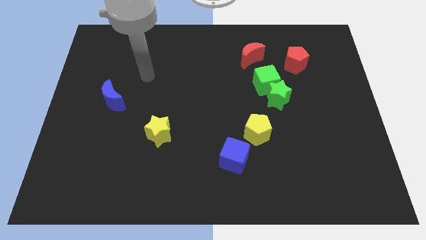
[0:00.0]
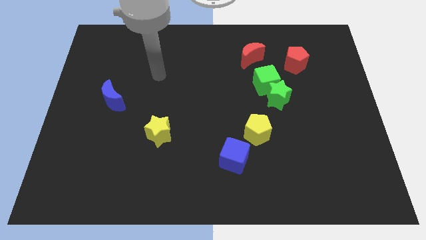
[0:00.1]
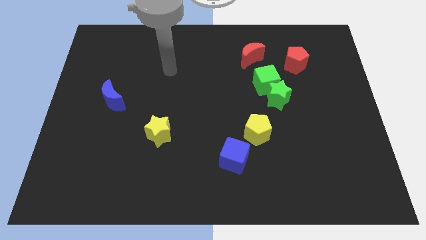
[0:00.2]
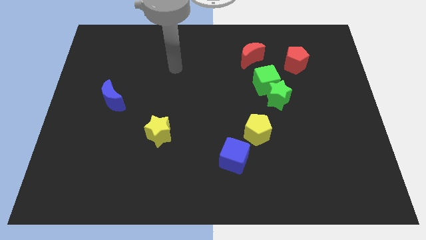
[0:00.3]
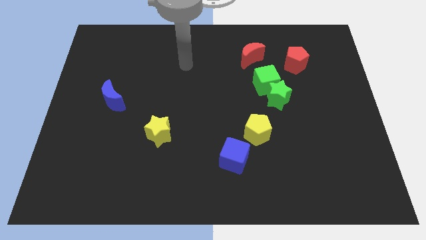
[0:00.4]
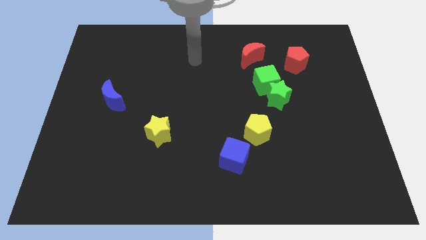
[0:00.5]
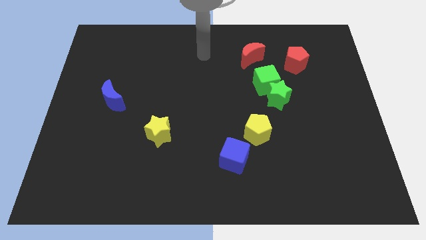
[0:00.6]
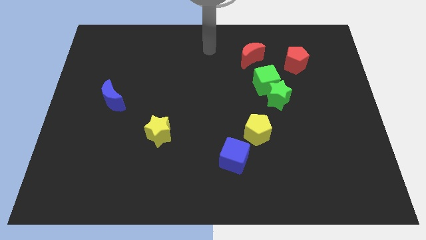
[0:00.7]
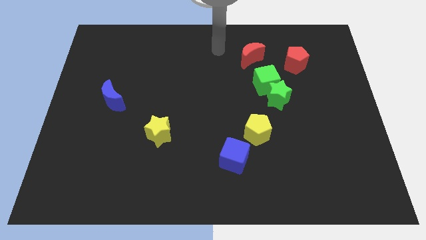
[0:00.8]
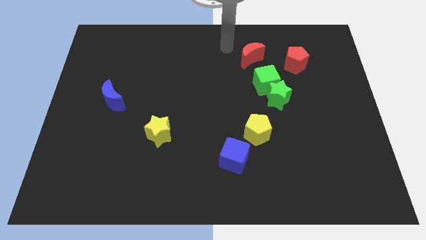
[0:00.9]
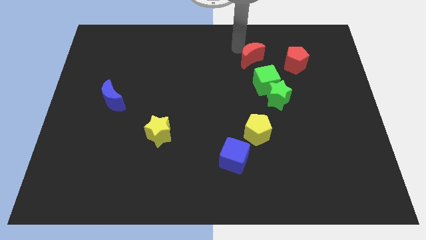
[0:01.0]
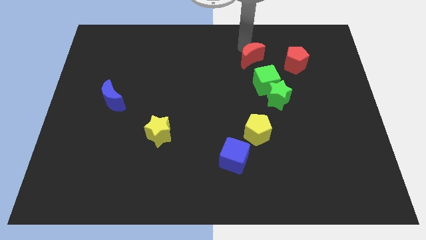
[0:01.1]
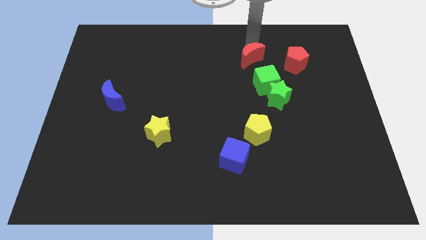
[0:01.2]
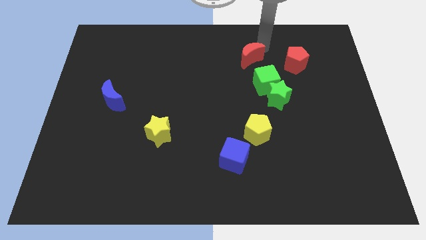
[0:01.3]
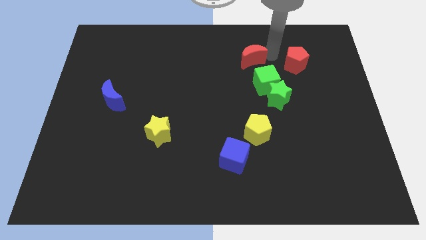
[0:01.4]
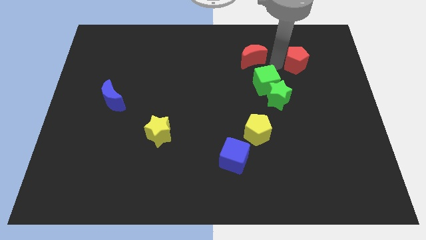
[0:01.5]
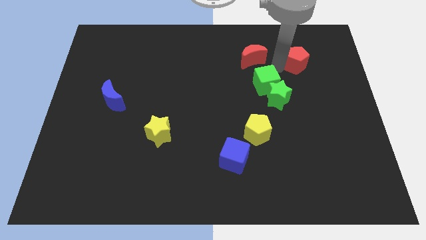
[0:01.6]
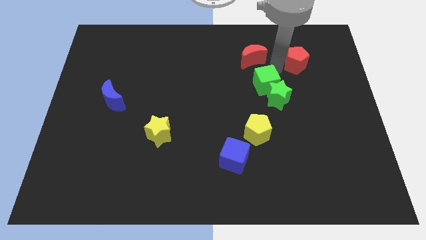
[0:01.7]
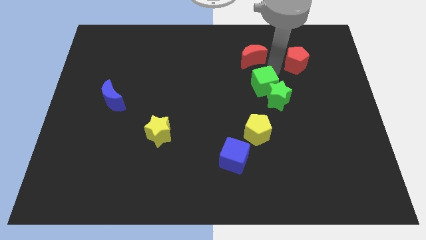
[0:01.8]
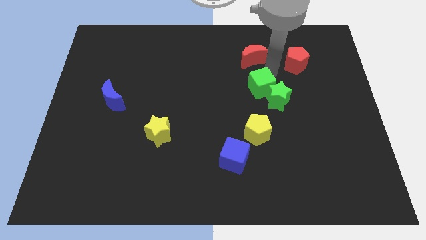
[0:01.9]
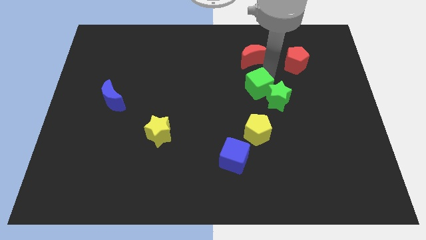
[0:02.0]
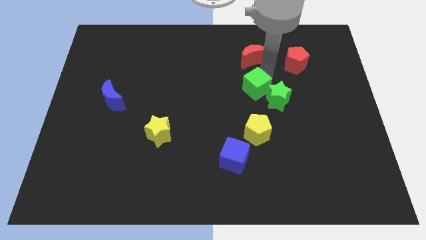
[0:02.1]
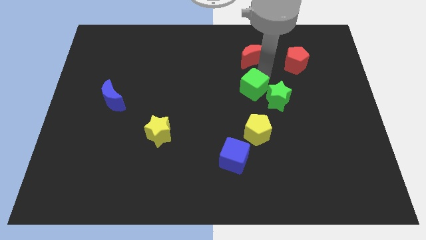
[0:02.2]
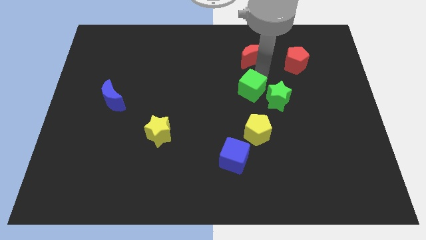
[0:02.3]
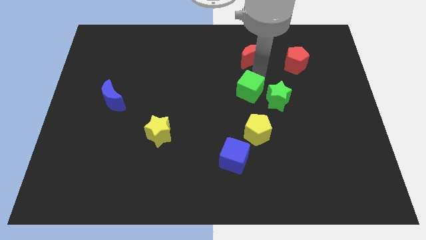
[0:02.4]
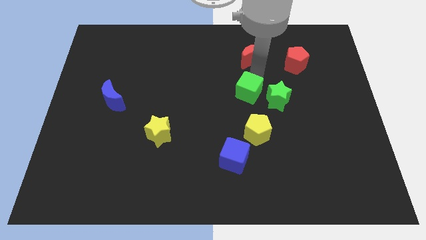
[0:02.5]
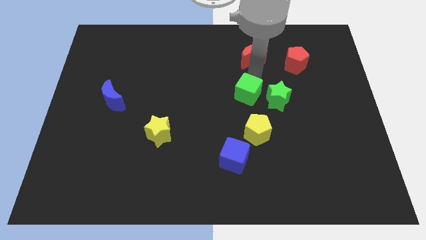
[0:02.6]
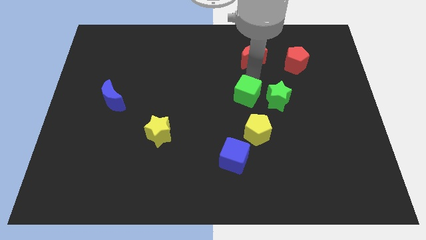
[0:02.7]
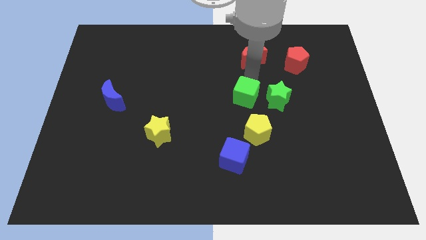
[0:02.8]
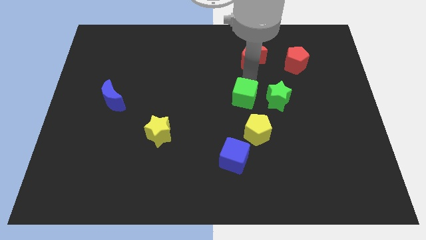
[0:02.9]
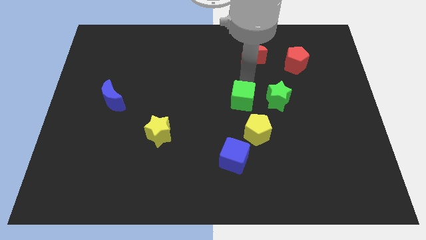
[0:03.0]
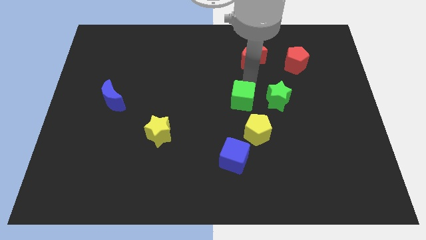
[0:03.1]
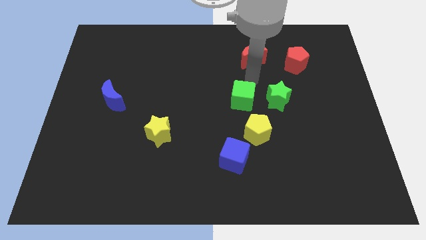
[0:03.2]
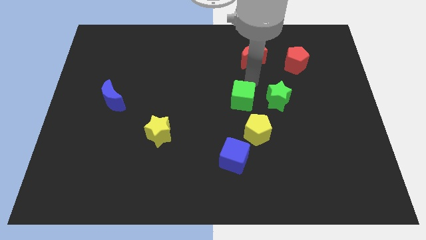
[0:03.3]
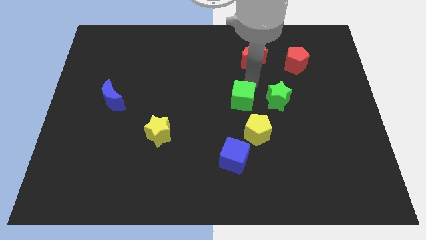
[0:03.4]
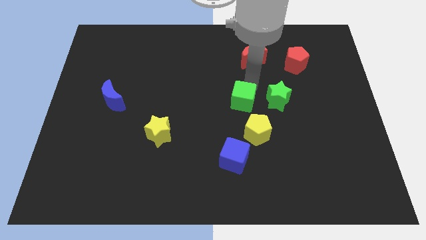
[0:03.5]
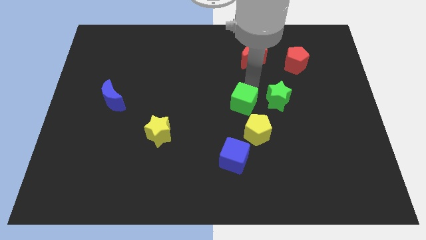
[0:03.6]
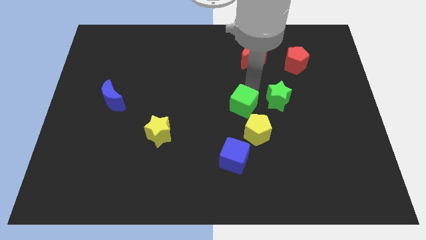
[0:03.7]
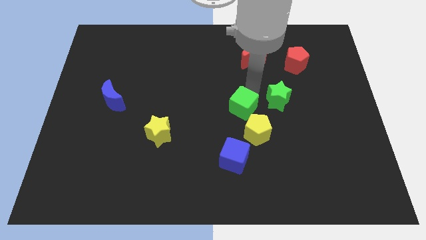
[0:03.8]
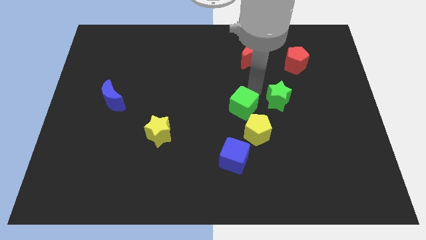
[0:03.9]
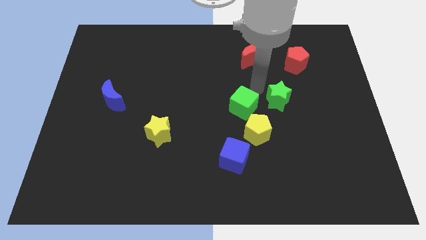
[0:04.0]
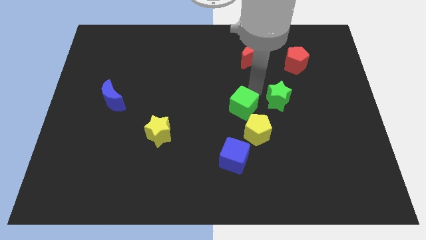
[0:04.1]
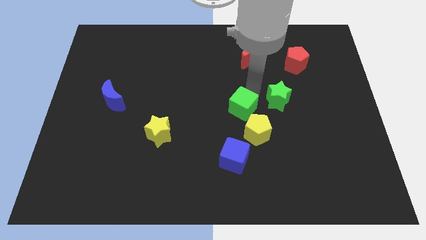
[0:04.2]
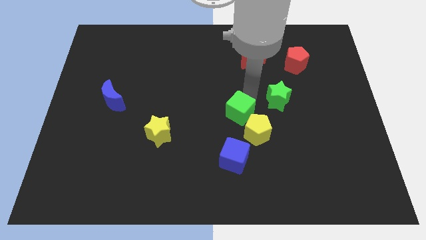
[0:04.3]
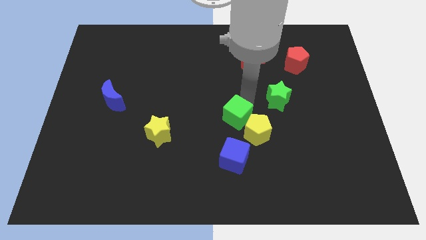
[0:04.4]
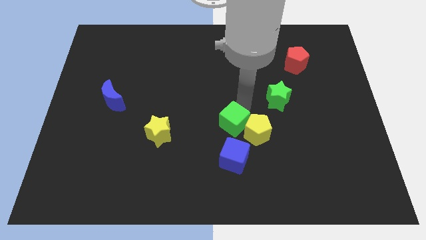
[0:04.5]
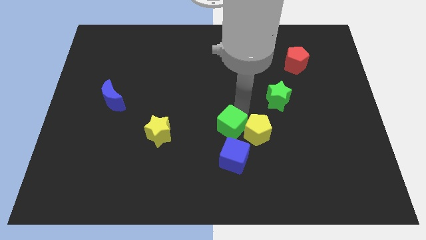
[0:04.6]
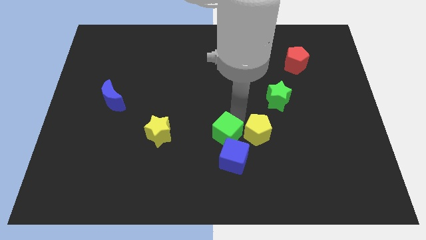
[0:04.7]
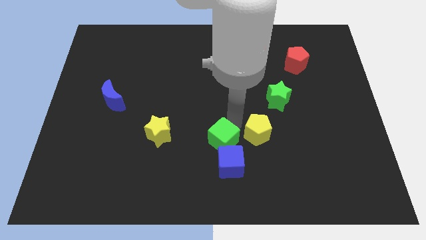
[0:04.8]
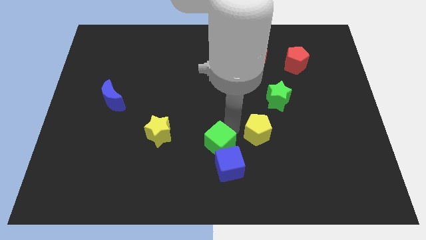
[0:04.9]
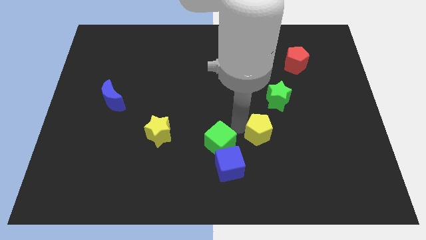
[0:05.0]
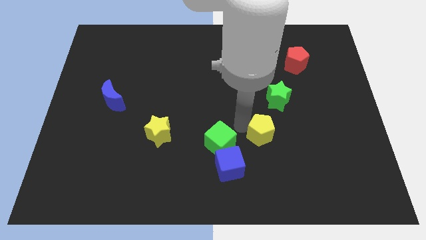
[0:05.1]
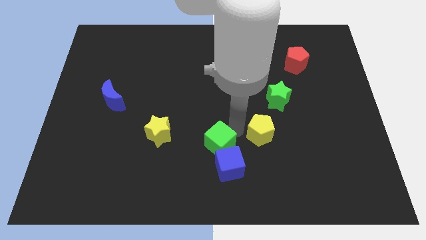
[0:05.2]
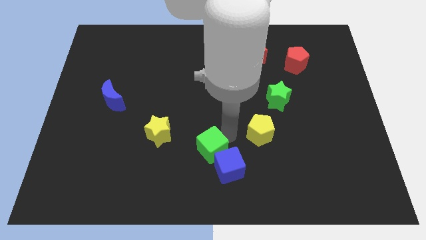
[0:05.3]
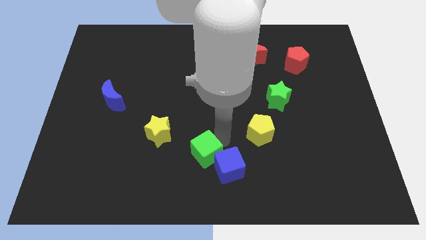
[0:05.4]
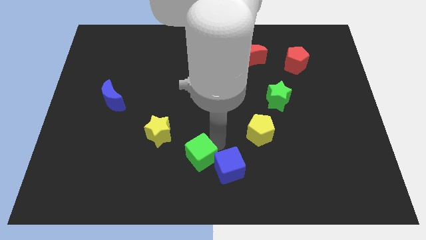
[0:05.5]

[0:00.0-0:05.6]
put the green cube to the bottom

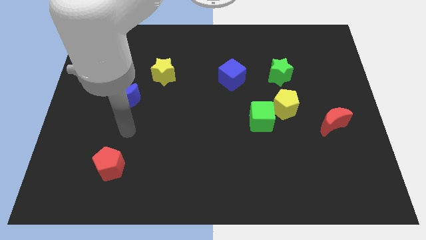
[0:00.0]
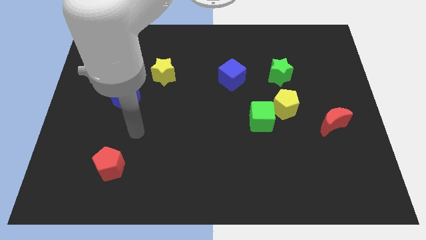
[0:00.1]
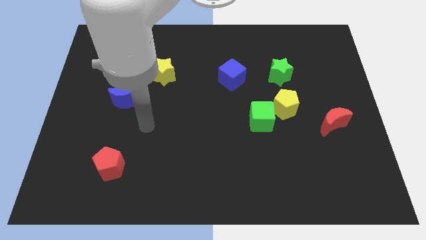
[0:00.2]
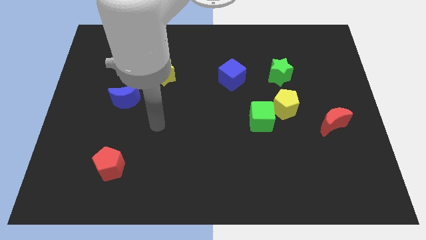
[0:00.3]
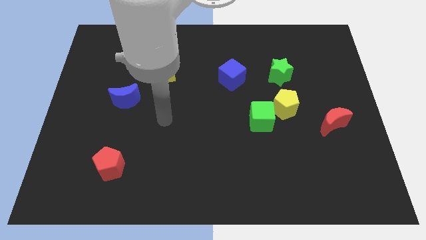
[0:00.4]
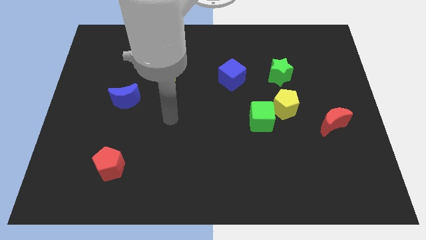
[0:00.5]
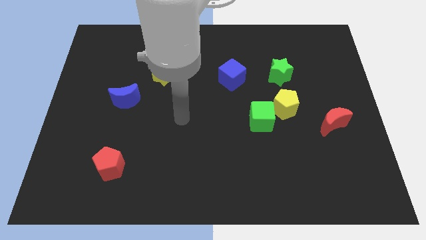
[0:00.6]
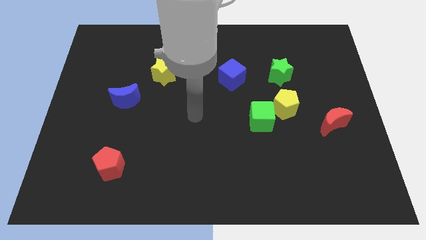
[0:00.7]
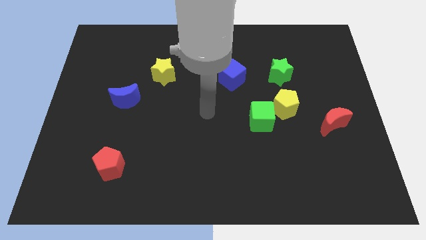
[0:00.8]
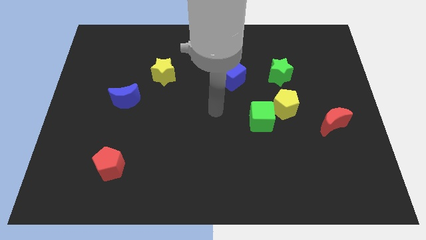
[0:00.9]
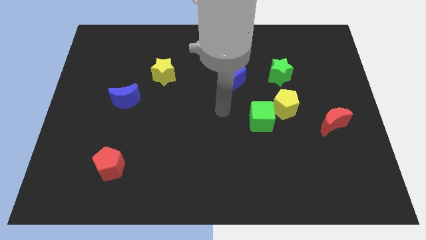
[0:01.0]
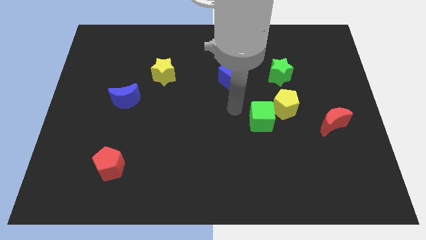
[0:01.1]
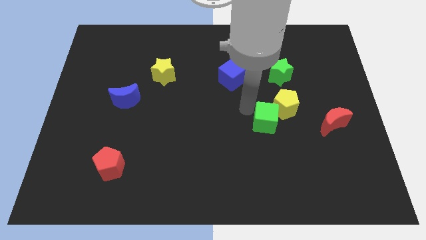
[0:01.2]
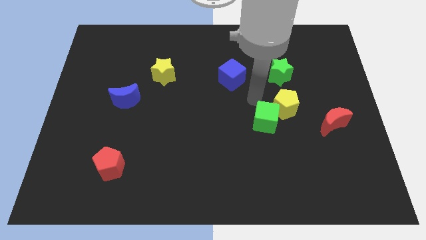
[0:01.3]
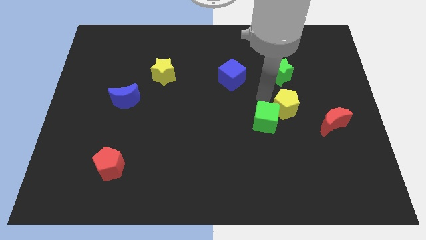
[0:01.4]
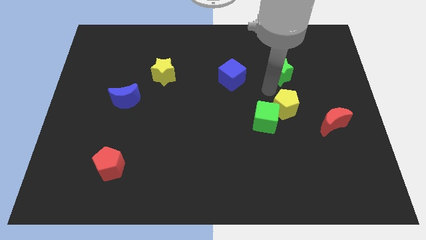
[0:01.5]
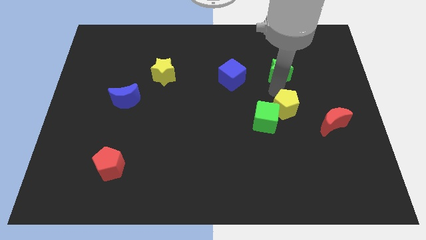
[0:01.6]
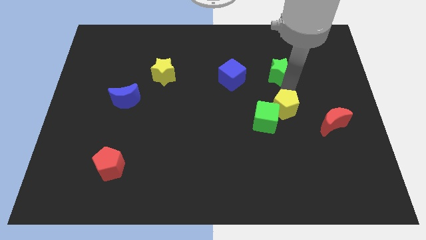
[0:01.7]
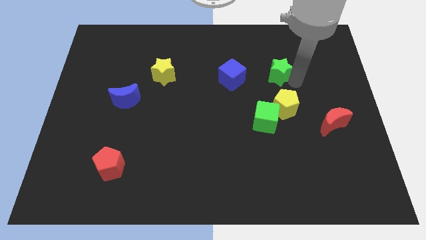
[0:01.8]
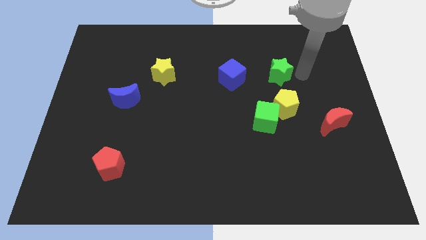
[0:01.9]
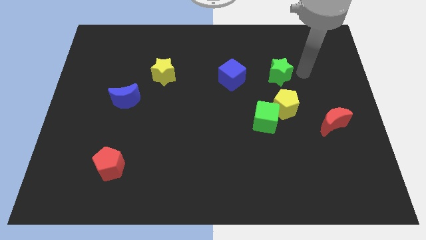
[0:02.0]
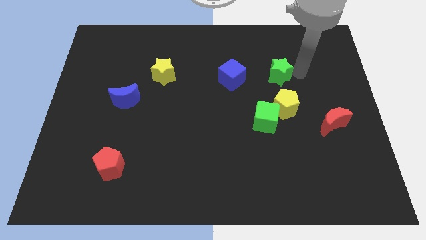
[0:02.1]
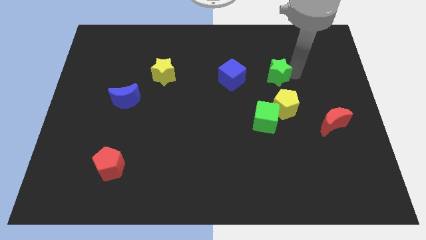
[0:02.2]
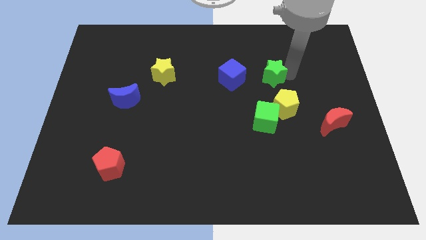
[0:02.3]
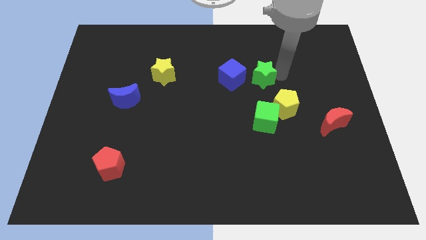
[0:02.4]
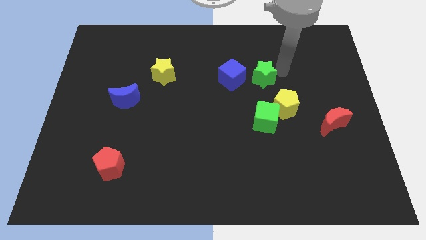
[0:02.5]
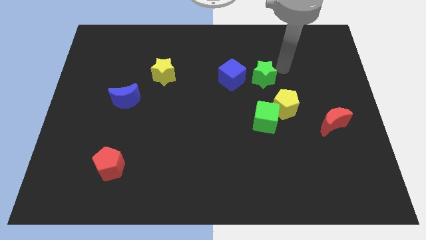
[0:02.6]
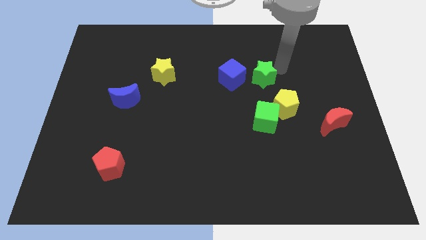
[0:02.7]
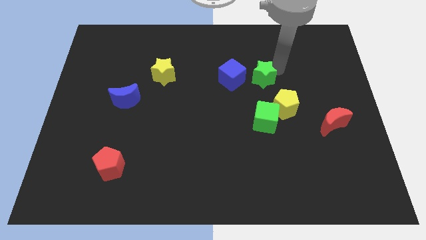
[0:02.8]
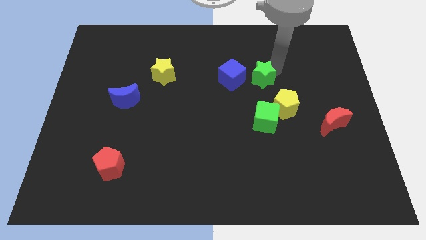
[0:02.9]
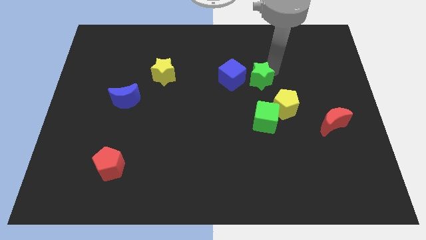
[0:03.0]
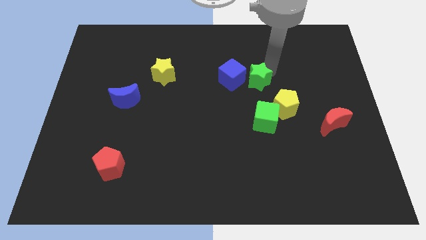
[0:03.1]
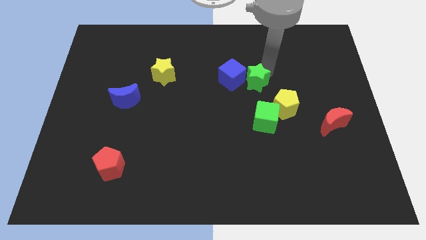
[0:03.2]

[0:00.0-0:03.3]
slide the green star to the center of the board
